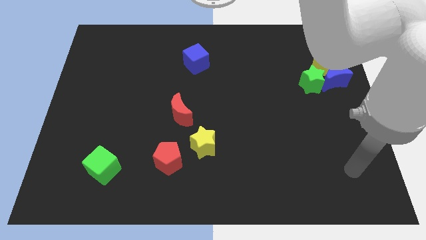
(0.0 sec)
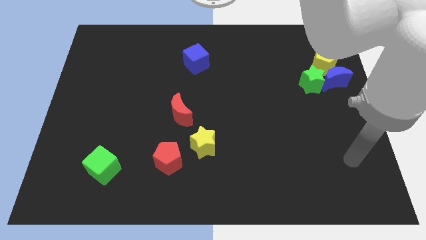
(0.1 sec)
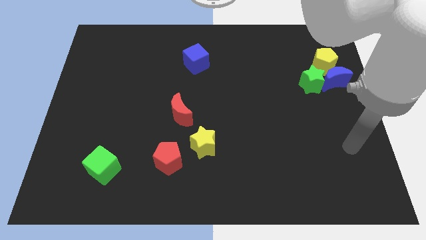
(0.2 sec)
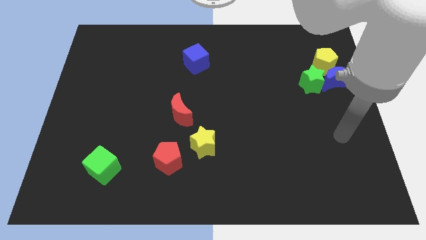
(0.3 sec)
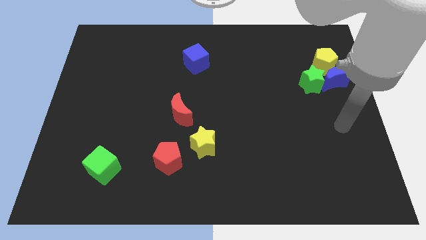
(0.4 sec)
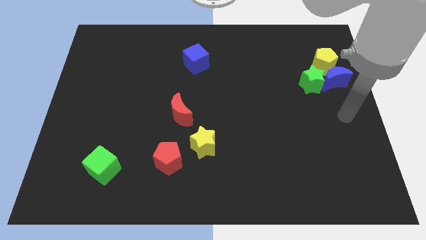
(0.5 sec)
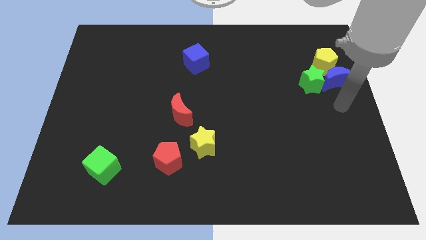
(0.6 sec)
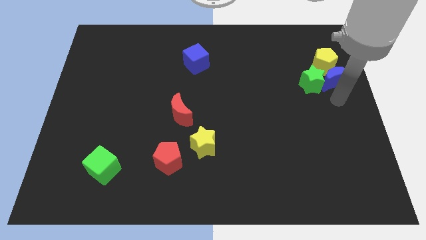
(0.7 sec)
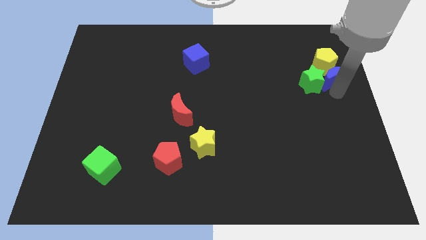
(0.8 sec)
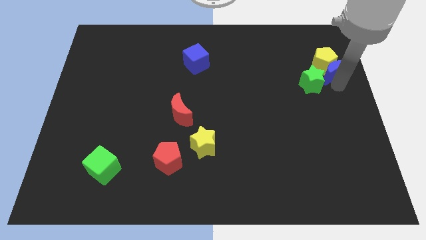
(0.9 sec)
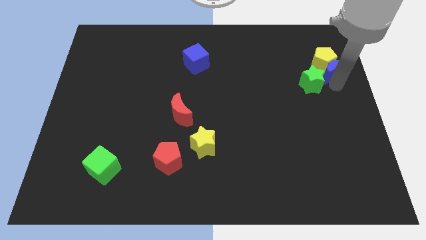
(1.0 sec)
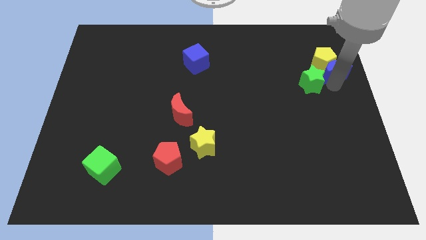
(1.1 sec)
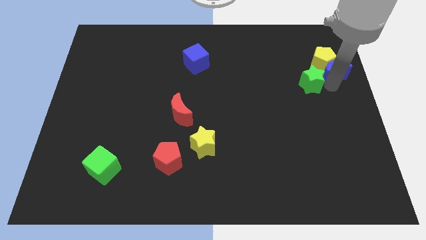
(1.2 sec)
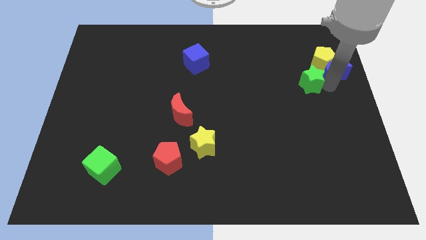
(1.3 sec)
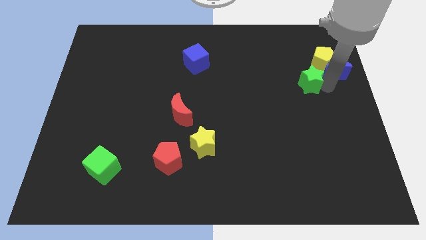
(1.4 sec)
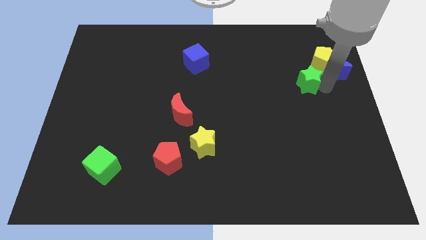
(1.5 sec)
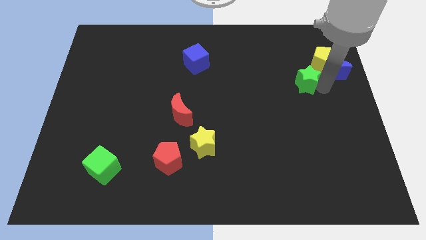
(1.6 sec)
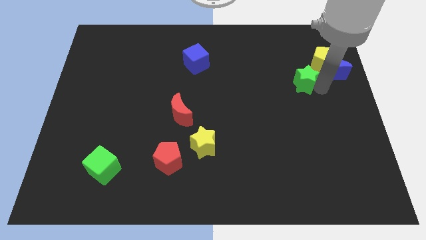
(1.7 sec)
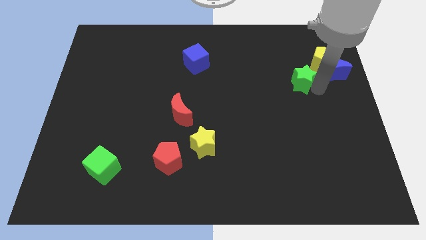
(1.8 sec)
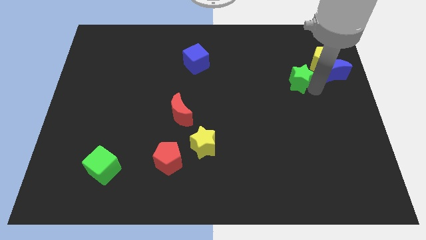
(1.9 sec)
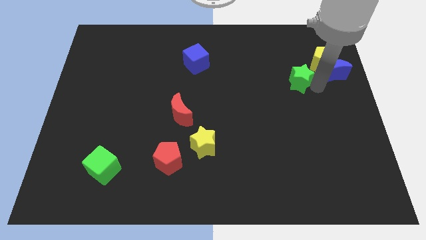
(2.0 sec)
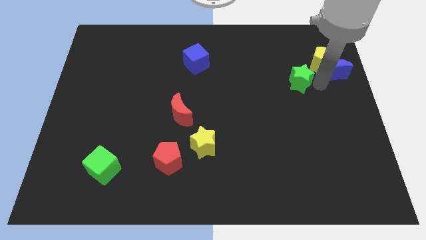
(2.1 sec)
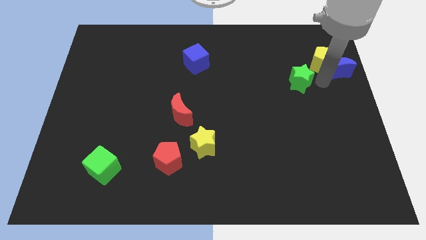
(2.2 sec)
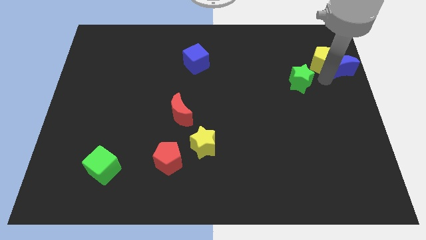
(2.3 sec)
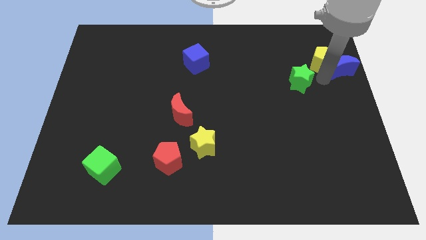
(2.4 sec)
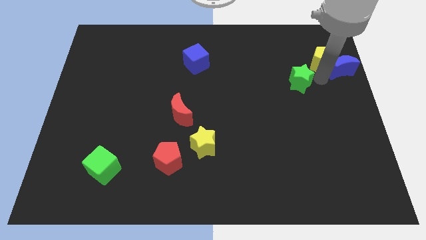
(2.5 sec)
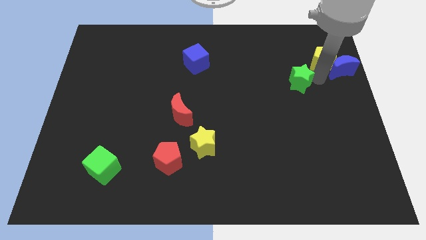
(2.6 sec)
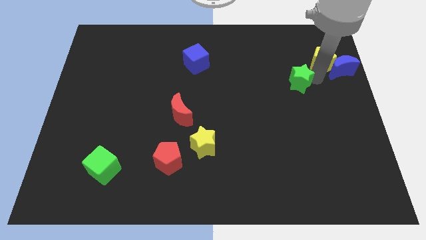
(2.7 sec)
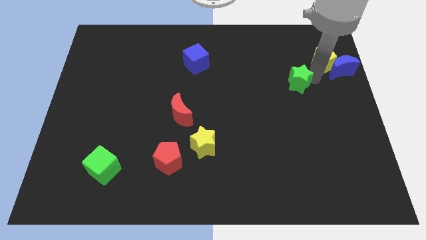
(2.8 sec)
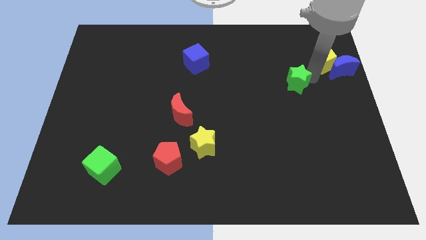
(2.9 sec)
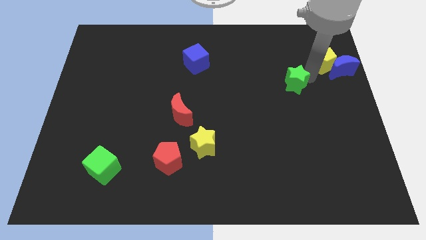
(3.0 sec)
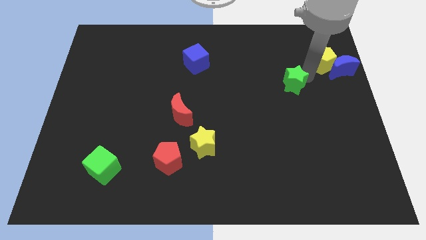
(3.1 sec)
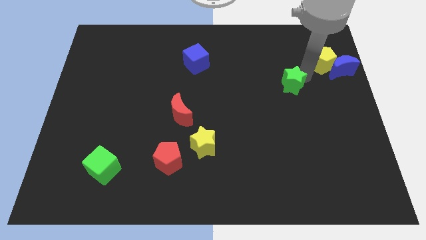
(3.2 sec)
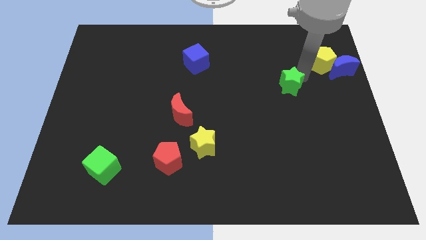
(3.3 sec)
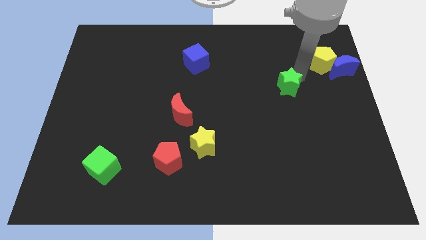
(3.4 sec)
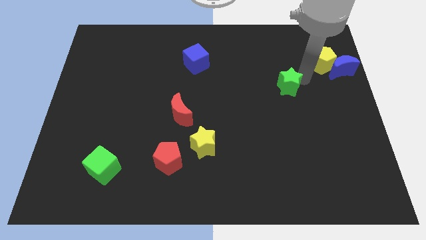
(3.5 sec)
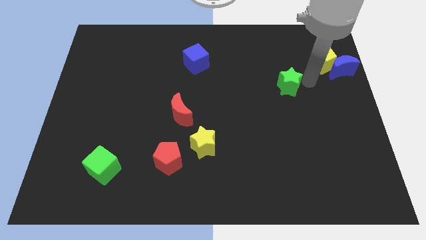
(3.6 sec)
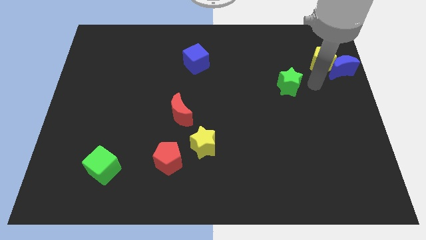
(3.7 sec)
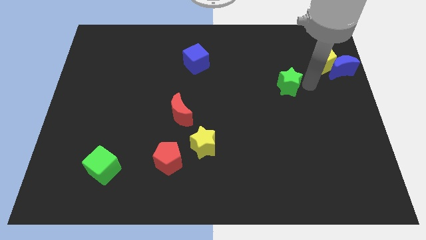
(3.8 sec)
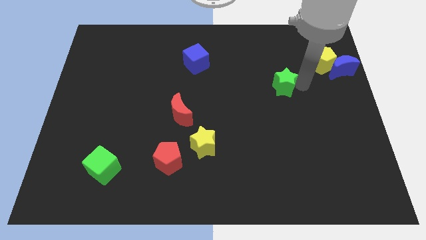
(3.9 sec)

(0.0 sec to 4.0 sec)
slide the green star a little bit left

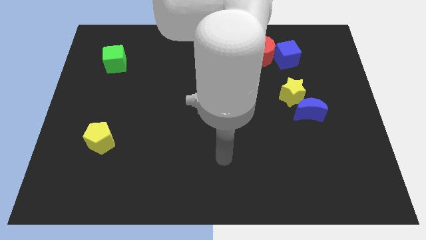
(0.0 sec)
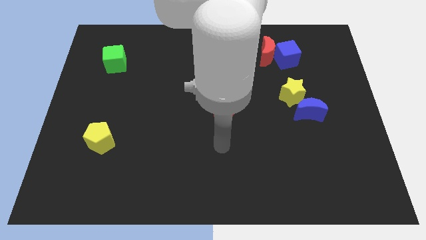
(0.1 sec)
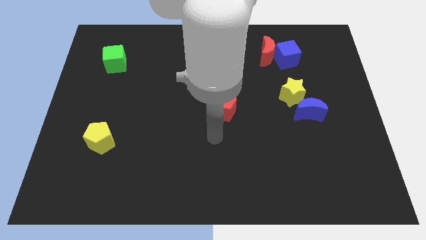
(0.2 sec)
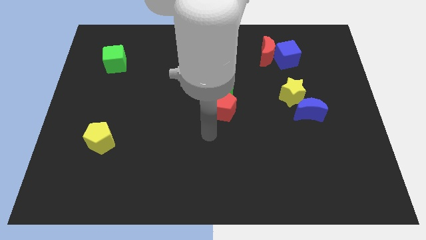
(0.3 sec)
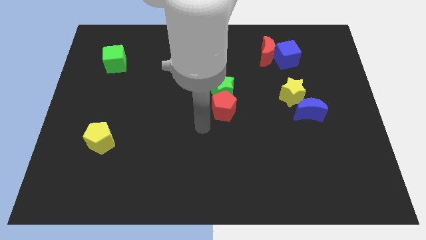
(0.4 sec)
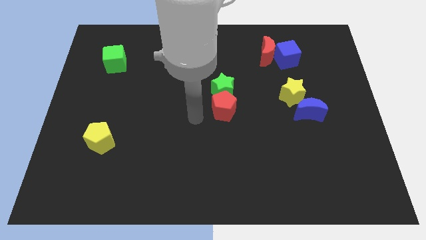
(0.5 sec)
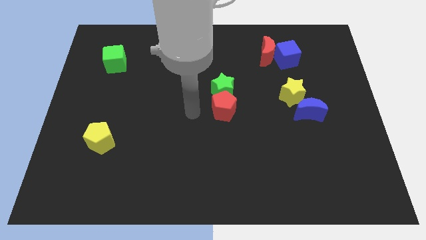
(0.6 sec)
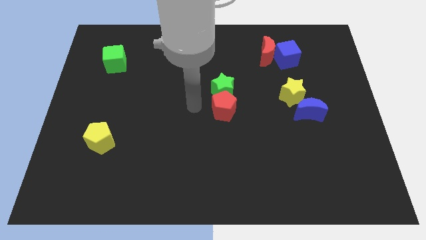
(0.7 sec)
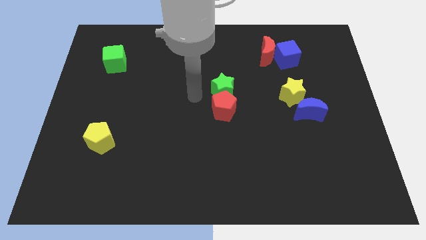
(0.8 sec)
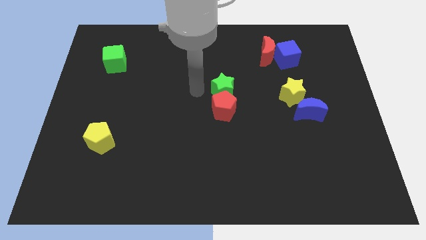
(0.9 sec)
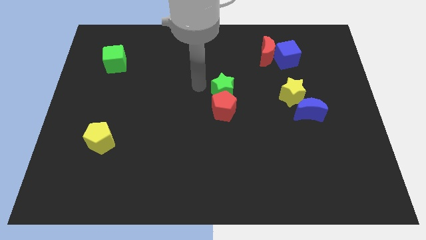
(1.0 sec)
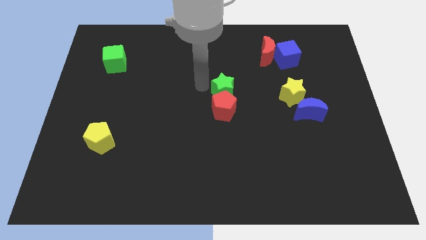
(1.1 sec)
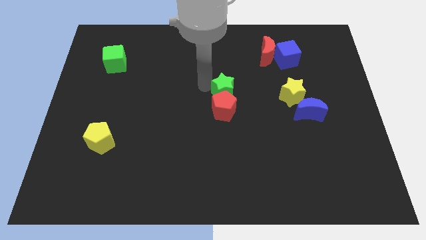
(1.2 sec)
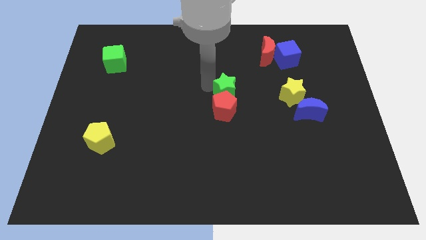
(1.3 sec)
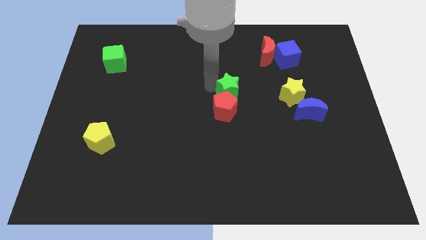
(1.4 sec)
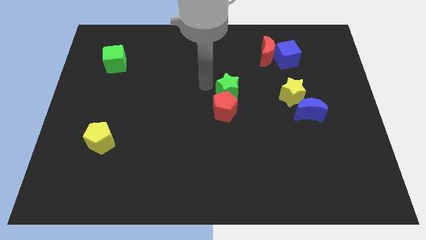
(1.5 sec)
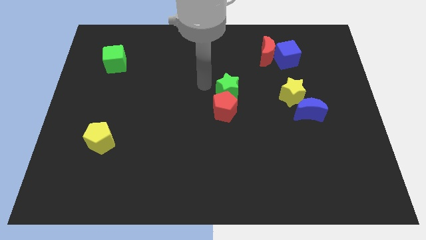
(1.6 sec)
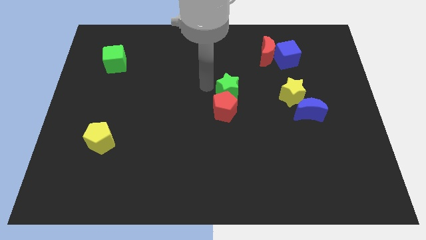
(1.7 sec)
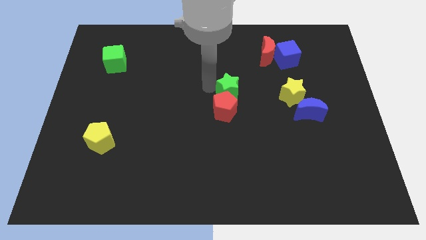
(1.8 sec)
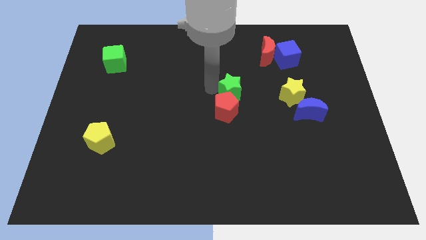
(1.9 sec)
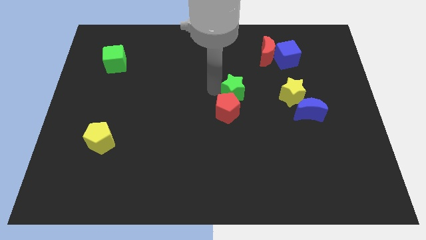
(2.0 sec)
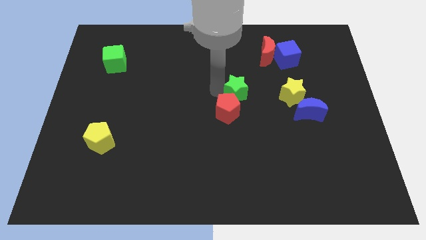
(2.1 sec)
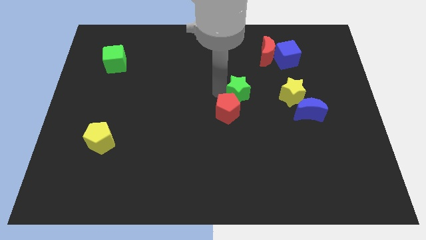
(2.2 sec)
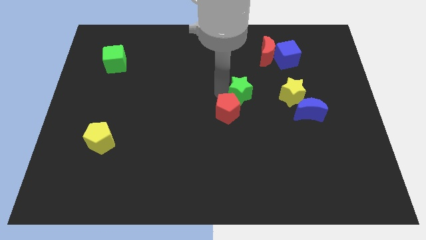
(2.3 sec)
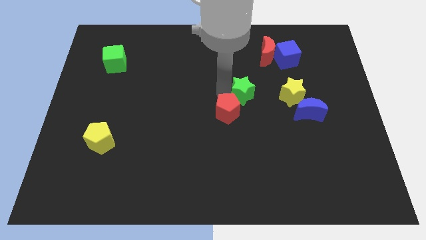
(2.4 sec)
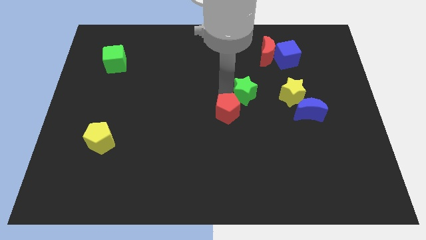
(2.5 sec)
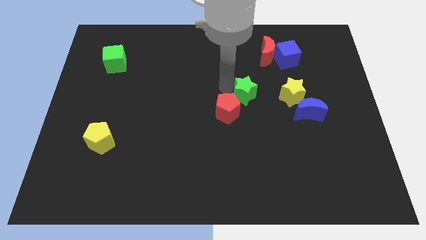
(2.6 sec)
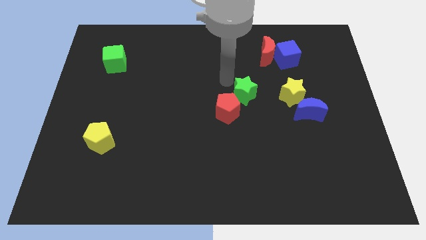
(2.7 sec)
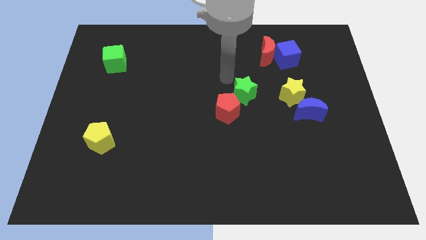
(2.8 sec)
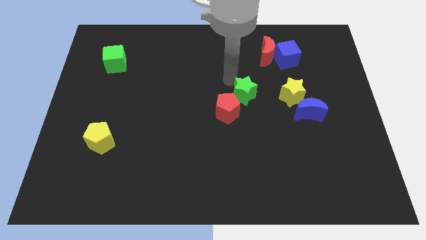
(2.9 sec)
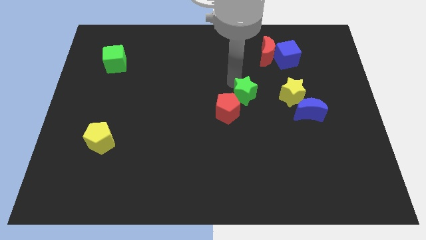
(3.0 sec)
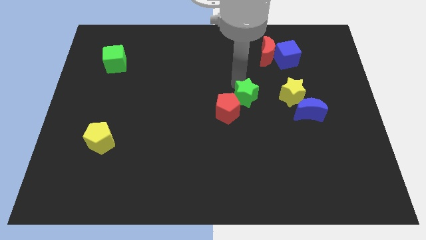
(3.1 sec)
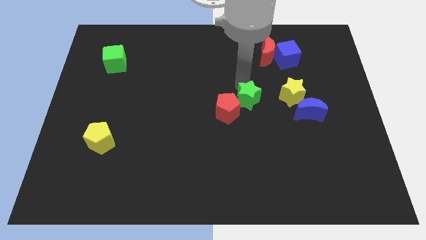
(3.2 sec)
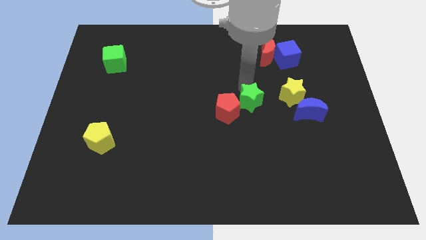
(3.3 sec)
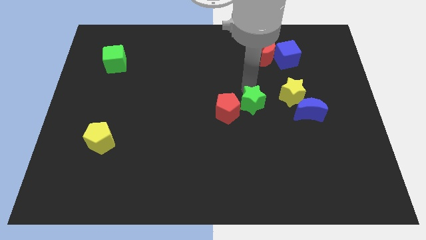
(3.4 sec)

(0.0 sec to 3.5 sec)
push the green star downwards and right diagonally a little bit

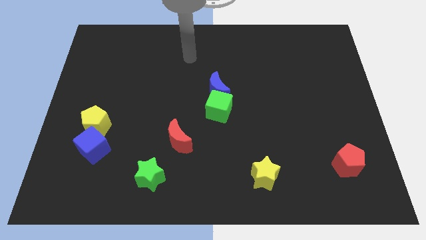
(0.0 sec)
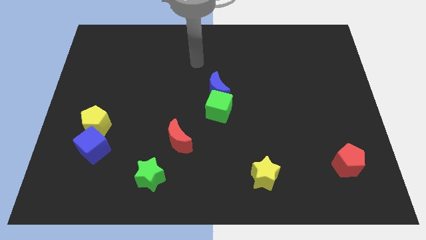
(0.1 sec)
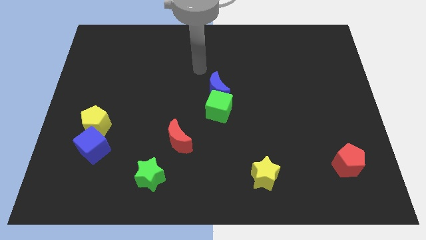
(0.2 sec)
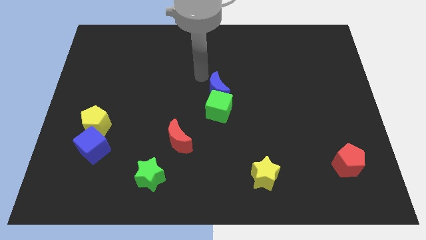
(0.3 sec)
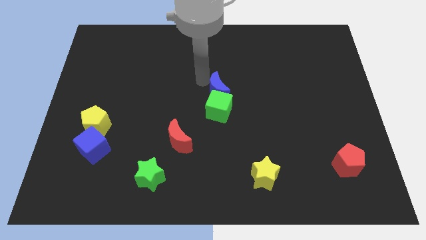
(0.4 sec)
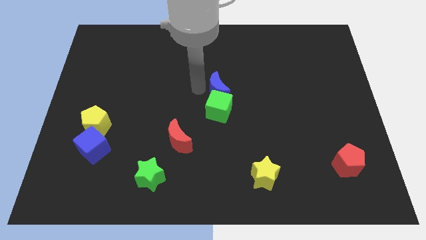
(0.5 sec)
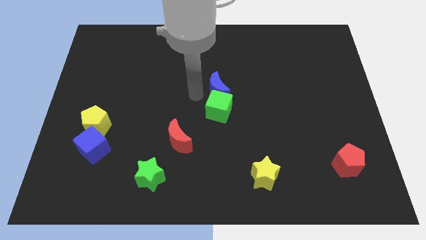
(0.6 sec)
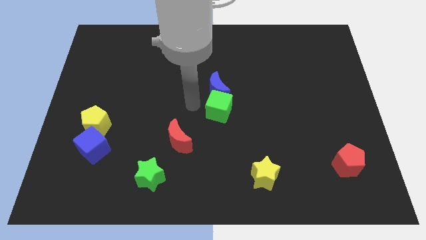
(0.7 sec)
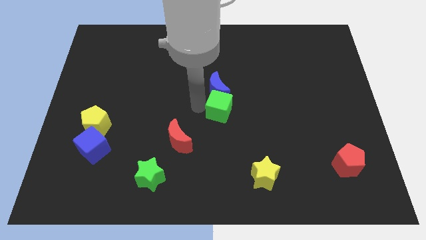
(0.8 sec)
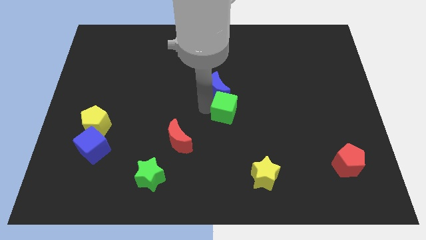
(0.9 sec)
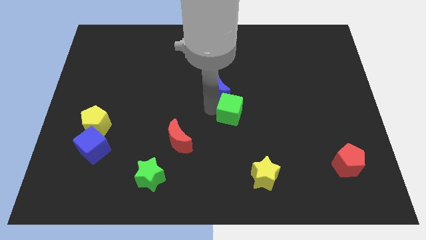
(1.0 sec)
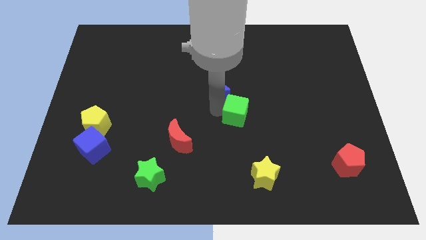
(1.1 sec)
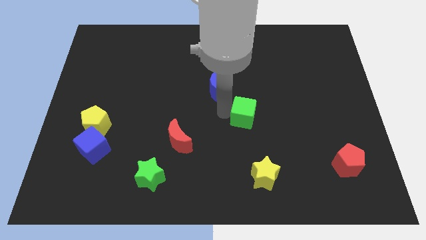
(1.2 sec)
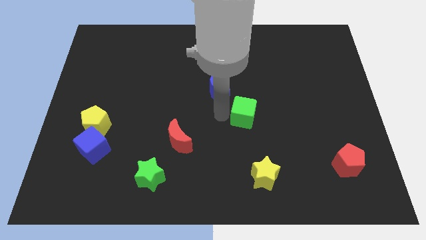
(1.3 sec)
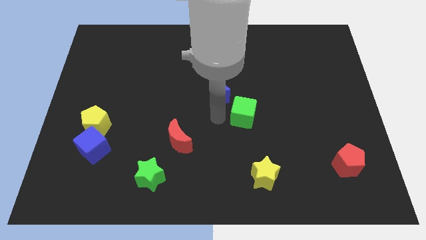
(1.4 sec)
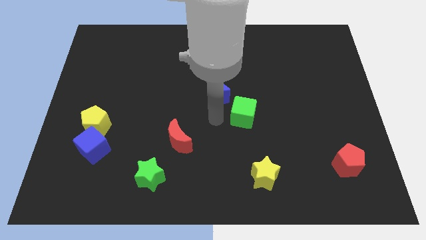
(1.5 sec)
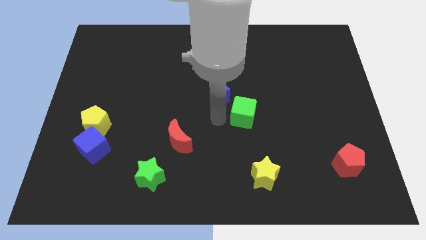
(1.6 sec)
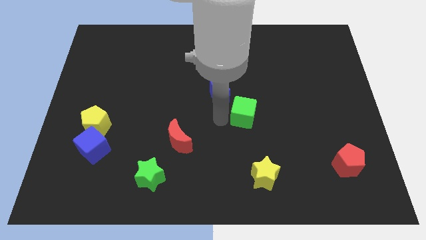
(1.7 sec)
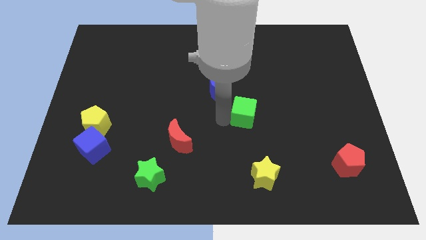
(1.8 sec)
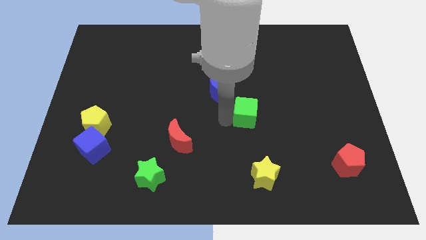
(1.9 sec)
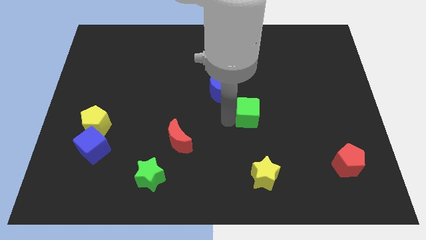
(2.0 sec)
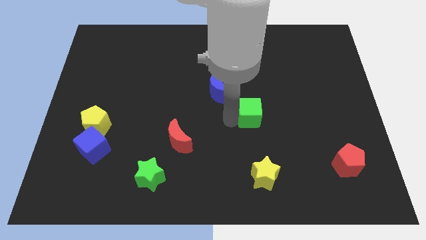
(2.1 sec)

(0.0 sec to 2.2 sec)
slide the green cube right a little bit
